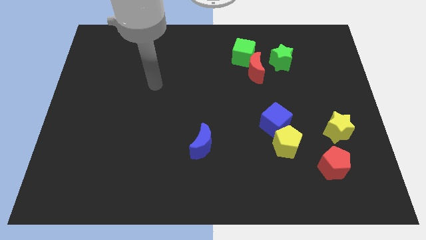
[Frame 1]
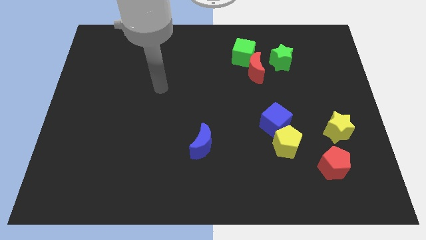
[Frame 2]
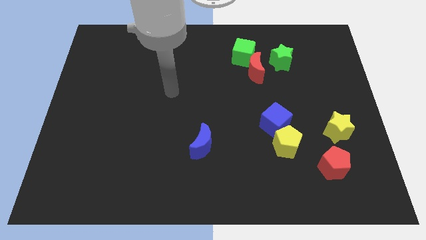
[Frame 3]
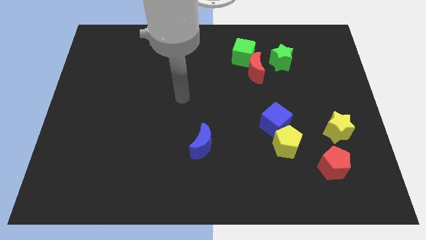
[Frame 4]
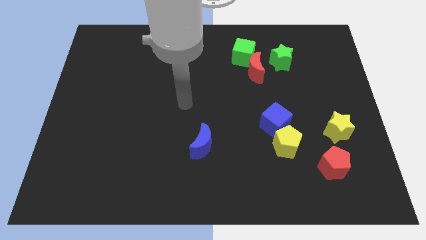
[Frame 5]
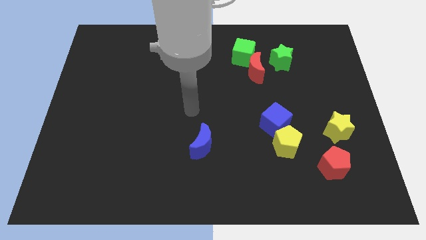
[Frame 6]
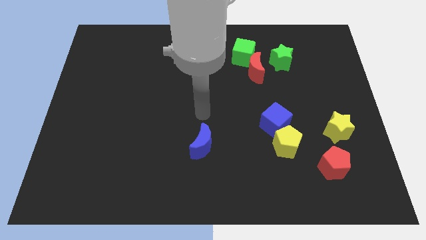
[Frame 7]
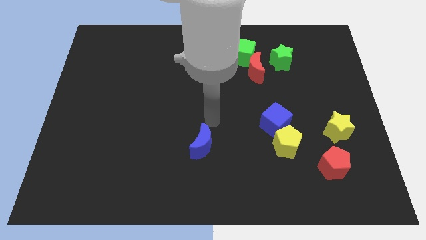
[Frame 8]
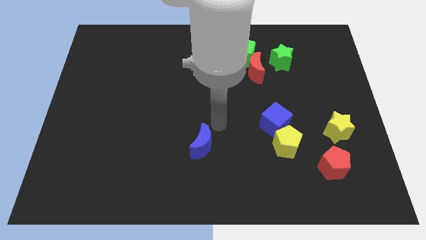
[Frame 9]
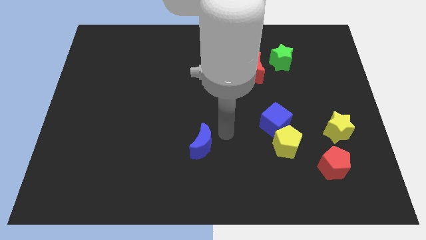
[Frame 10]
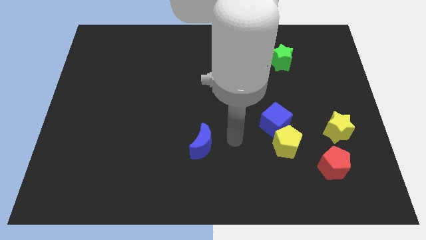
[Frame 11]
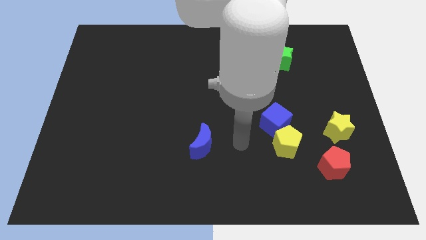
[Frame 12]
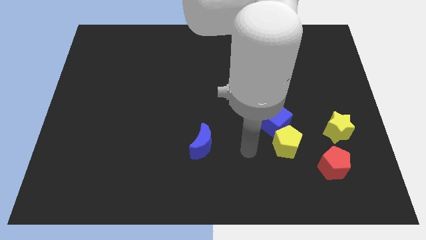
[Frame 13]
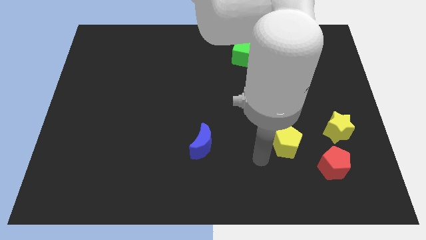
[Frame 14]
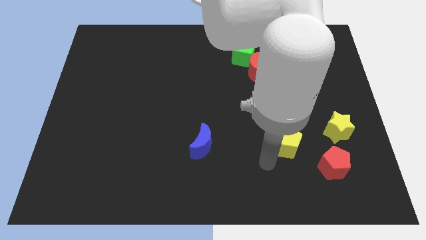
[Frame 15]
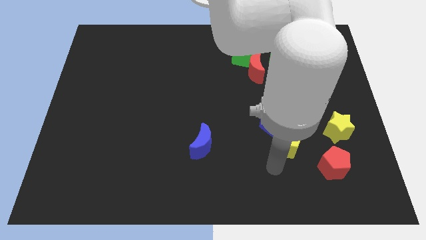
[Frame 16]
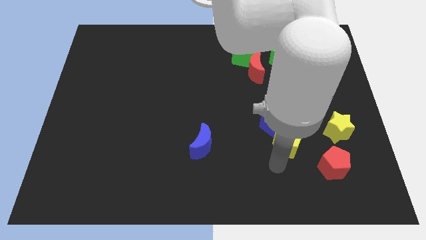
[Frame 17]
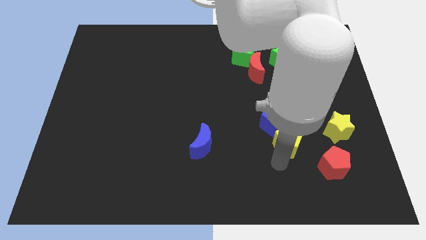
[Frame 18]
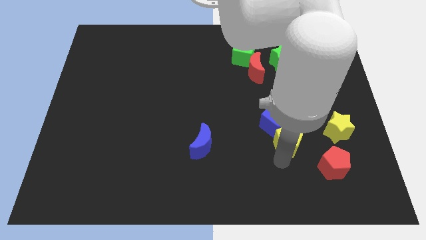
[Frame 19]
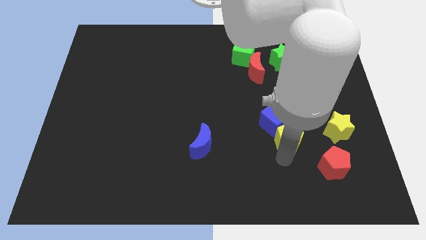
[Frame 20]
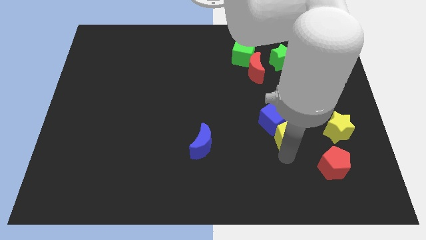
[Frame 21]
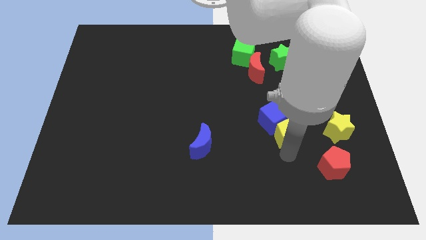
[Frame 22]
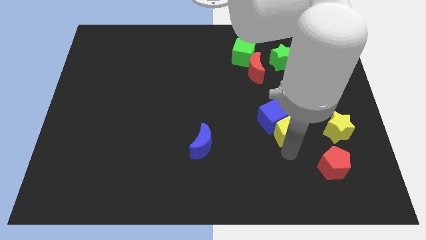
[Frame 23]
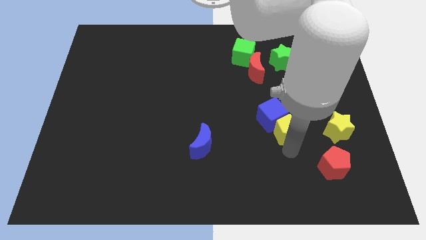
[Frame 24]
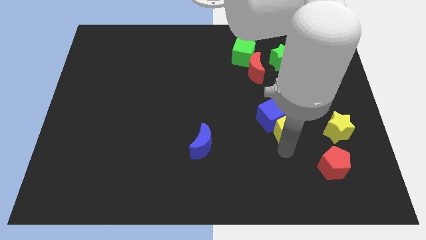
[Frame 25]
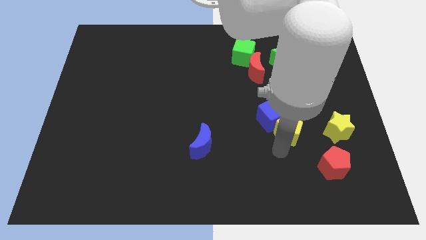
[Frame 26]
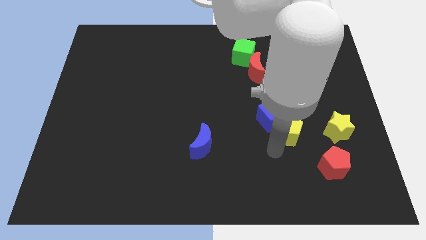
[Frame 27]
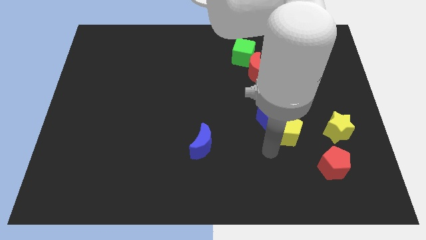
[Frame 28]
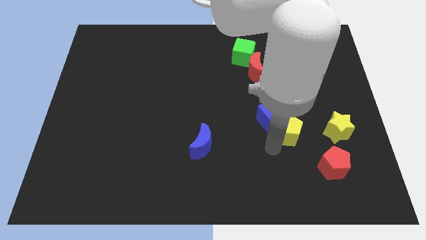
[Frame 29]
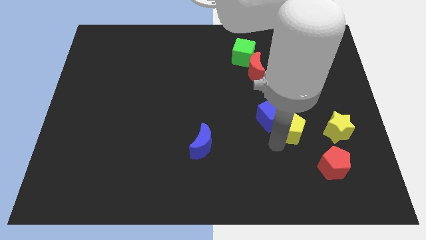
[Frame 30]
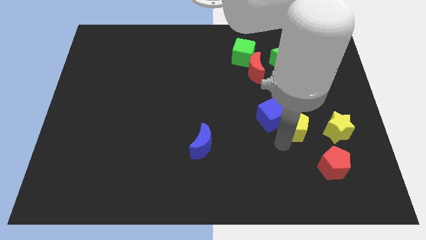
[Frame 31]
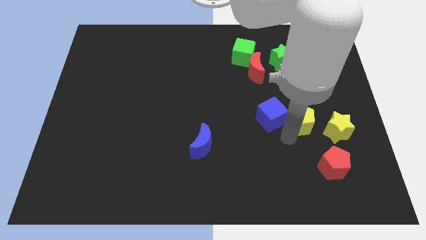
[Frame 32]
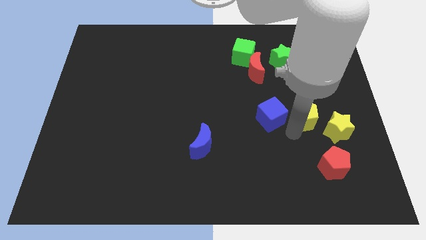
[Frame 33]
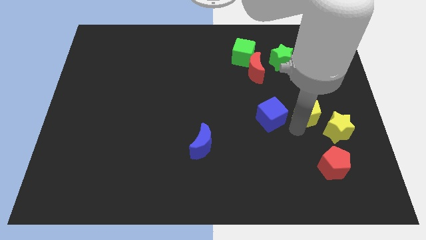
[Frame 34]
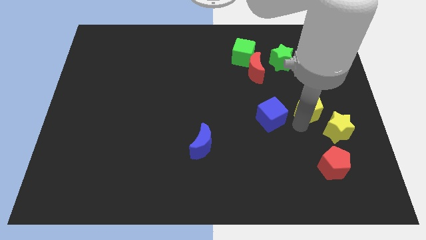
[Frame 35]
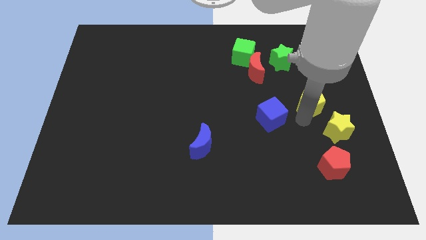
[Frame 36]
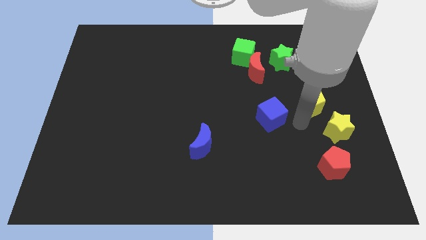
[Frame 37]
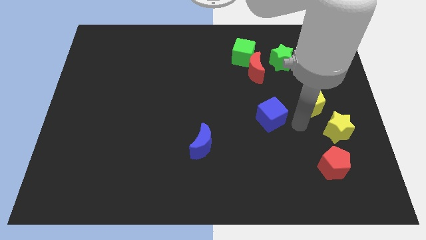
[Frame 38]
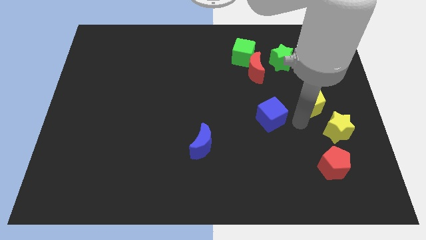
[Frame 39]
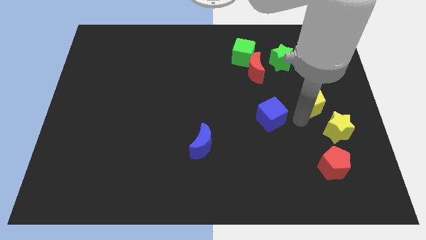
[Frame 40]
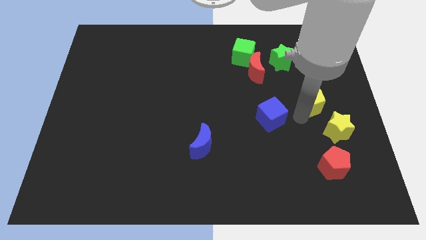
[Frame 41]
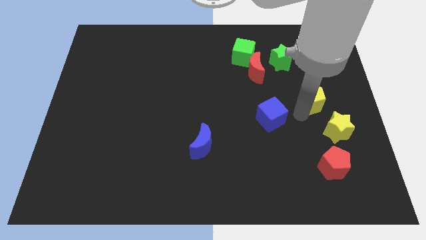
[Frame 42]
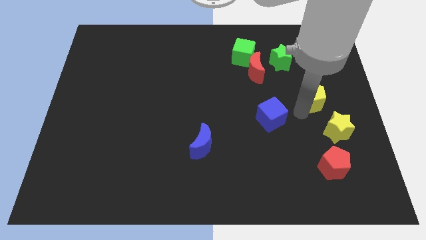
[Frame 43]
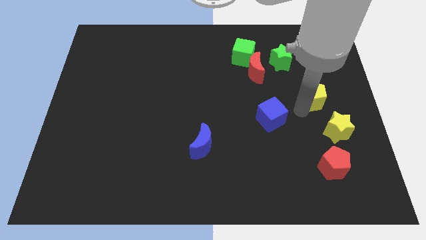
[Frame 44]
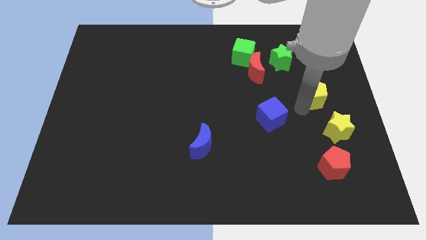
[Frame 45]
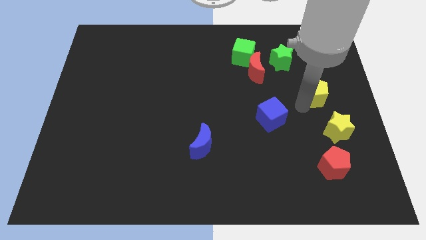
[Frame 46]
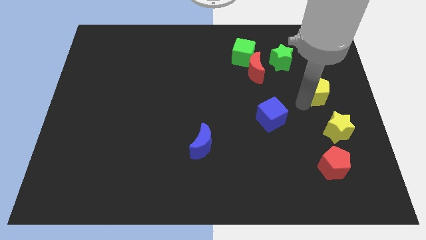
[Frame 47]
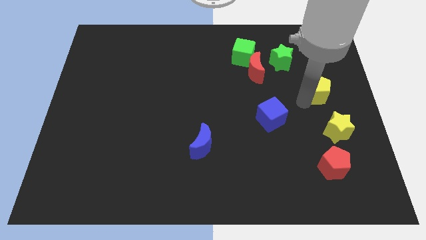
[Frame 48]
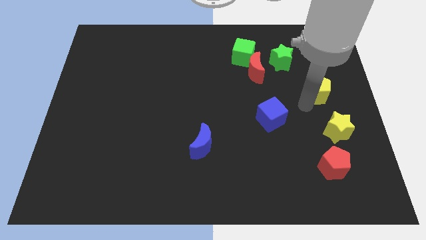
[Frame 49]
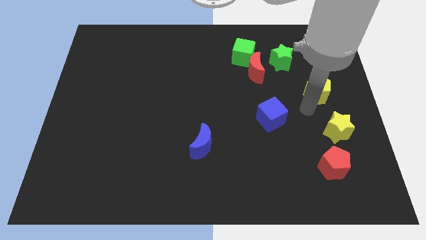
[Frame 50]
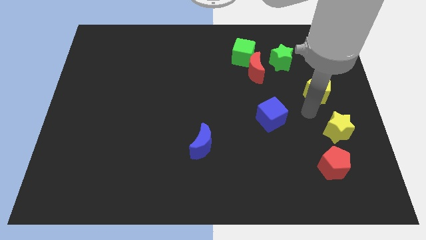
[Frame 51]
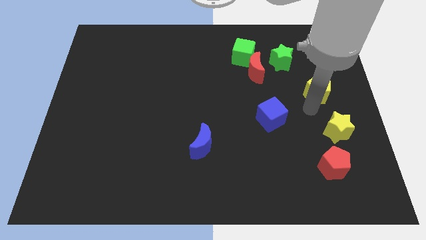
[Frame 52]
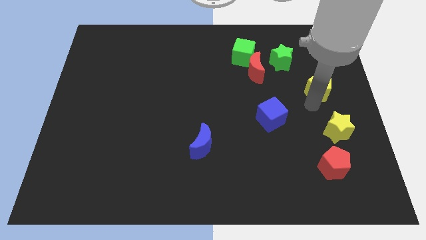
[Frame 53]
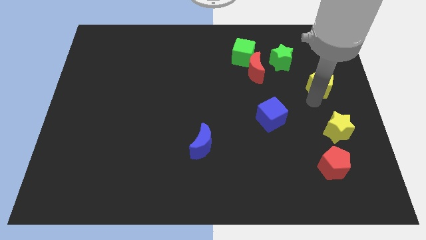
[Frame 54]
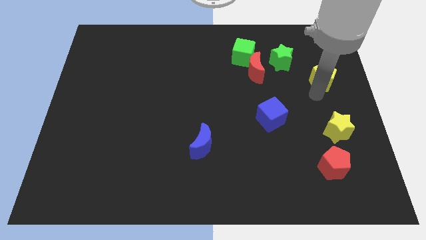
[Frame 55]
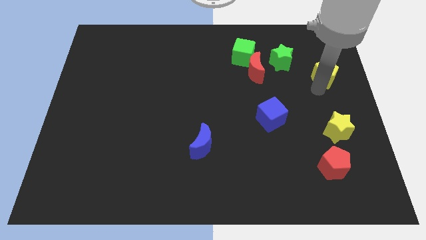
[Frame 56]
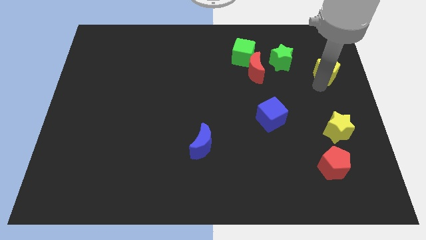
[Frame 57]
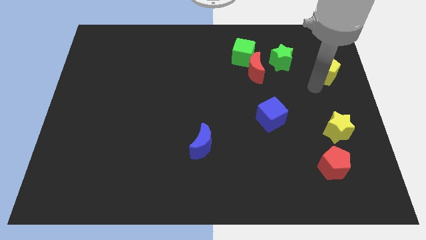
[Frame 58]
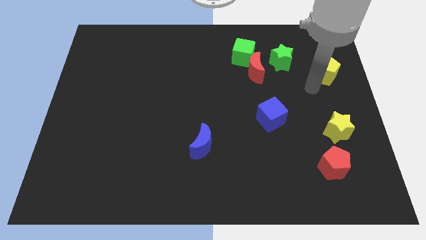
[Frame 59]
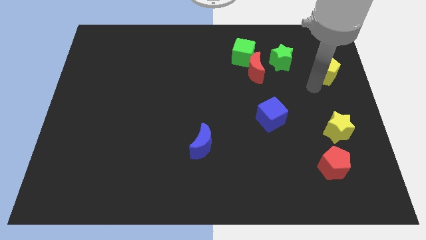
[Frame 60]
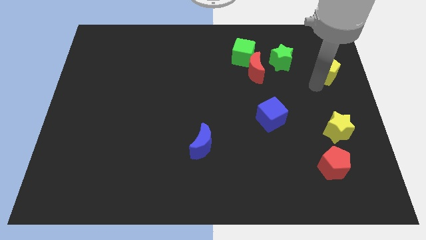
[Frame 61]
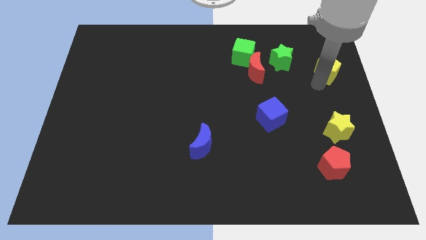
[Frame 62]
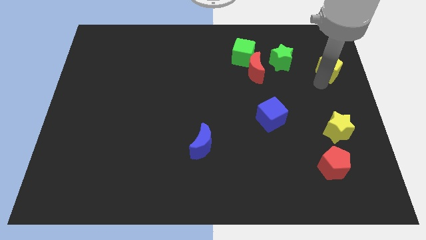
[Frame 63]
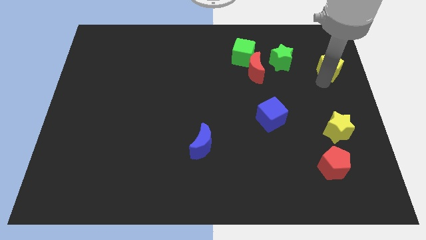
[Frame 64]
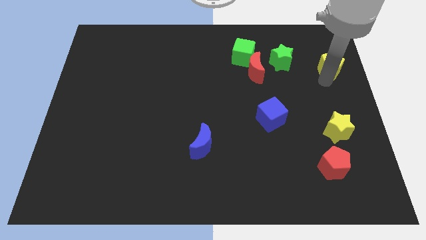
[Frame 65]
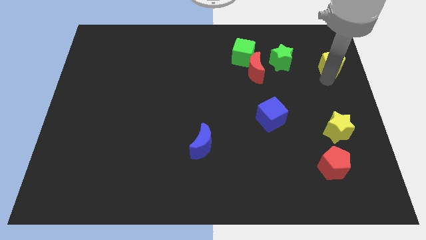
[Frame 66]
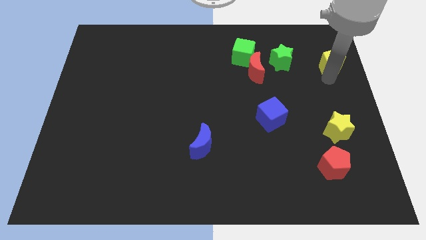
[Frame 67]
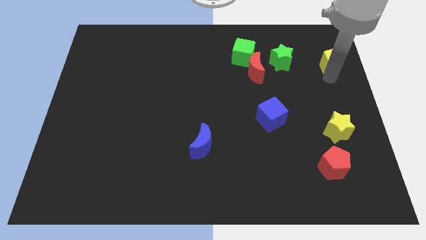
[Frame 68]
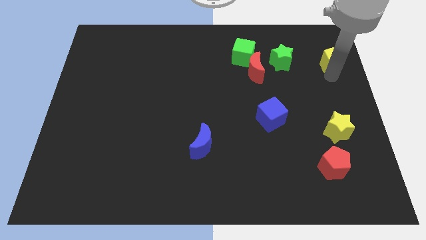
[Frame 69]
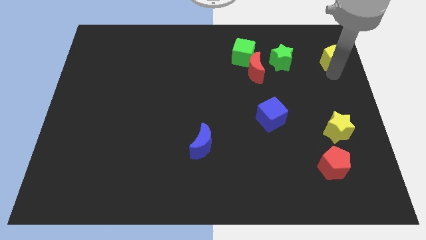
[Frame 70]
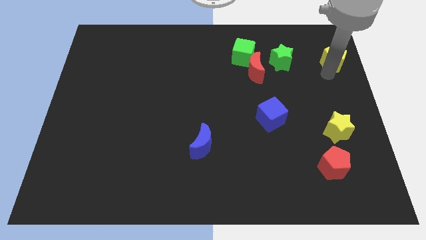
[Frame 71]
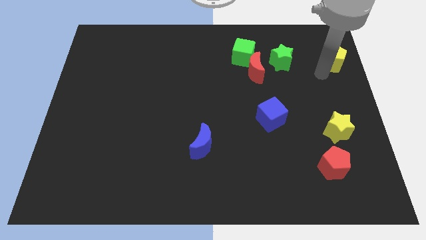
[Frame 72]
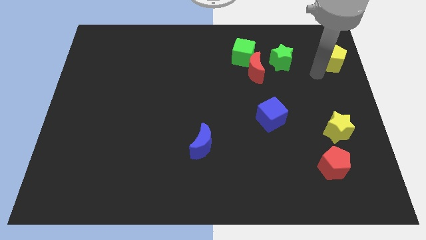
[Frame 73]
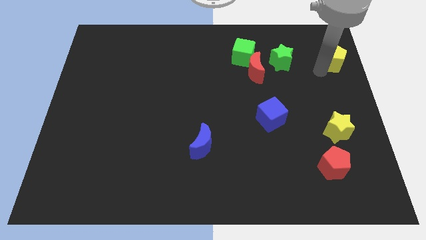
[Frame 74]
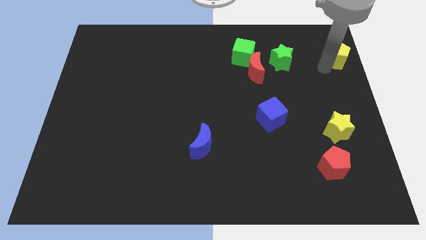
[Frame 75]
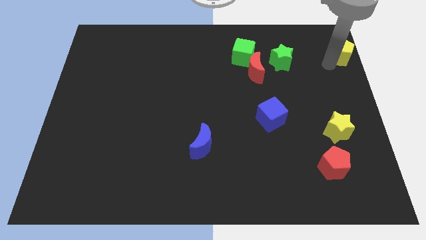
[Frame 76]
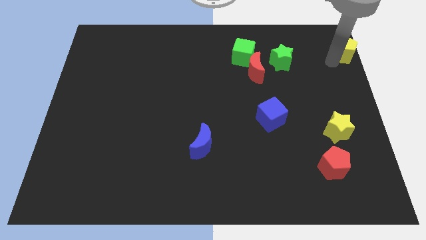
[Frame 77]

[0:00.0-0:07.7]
slide the yellow pentagon to the top right
